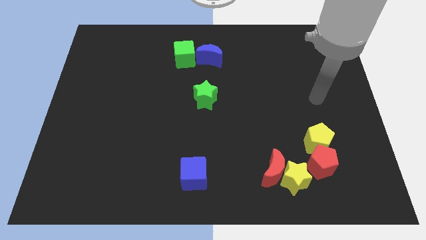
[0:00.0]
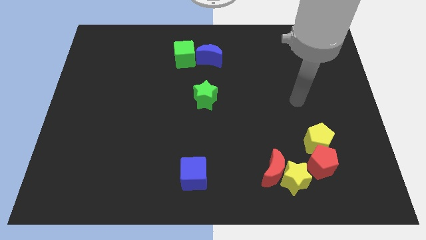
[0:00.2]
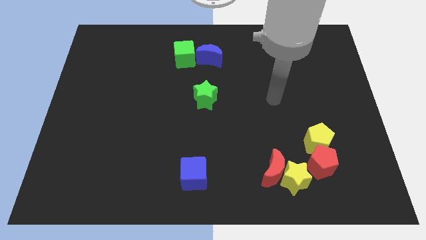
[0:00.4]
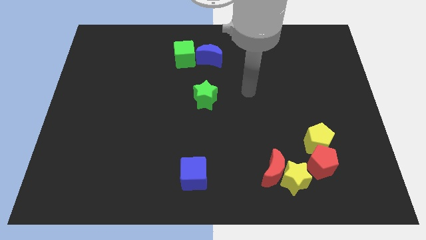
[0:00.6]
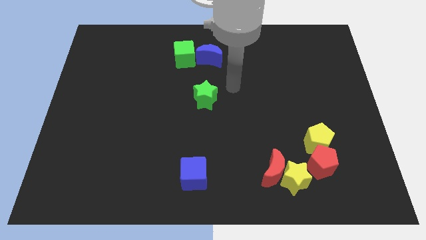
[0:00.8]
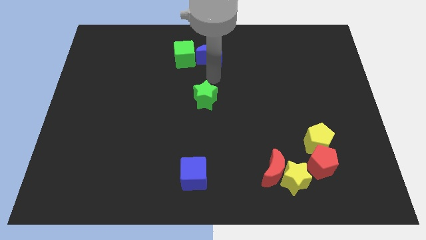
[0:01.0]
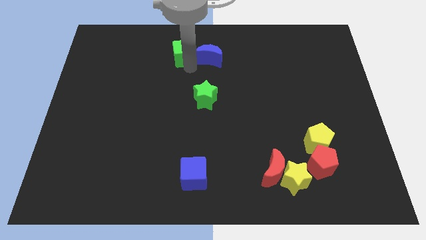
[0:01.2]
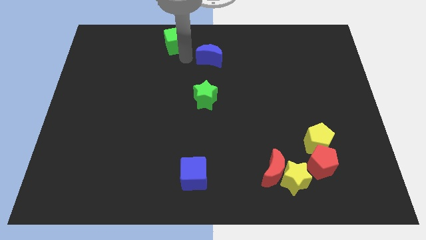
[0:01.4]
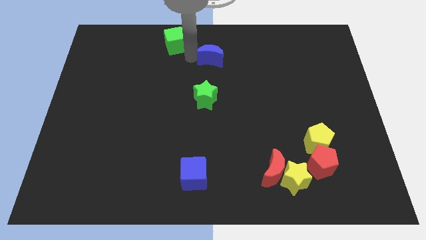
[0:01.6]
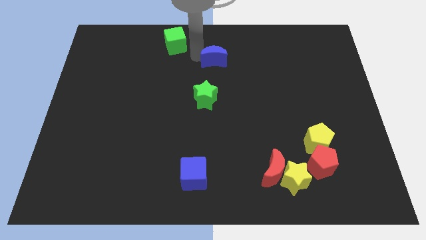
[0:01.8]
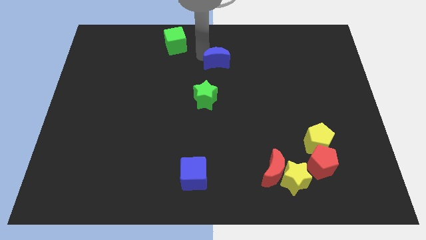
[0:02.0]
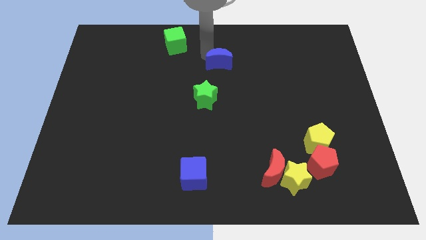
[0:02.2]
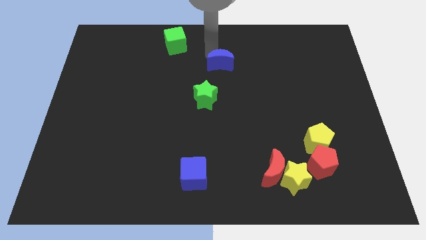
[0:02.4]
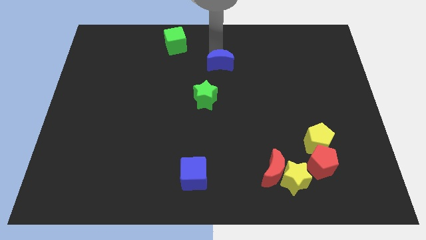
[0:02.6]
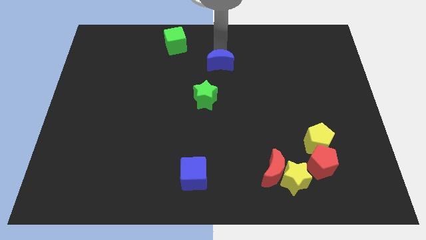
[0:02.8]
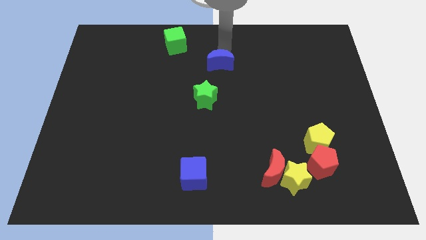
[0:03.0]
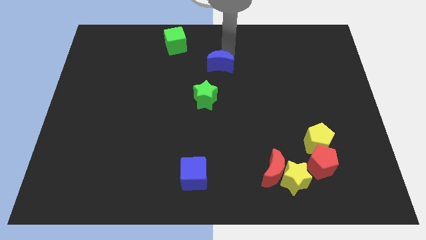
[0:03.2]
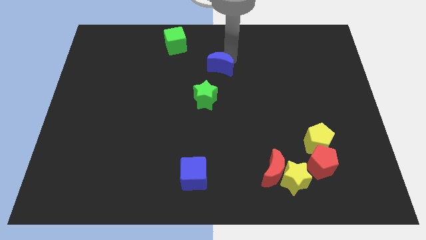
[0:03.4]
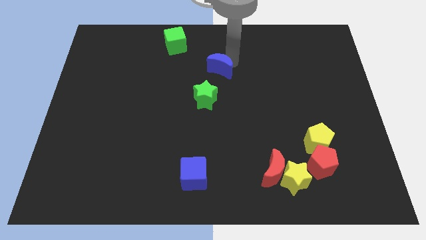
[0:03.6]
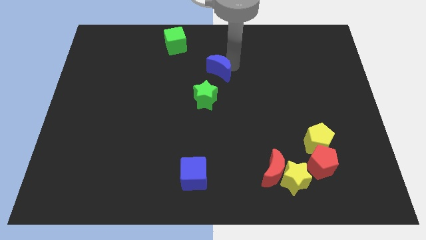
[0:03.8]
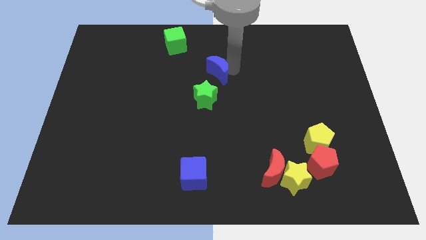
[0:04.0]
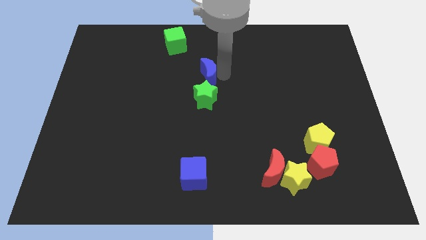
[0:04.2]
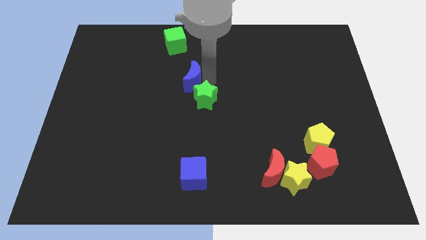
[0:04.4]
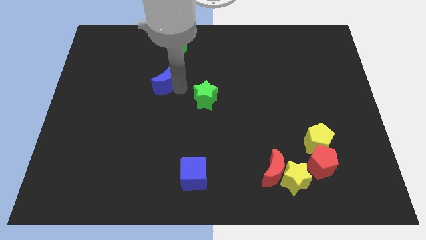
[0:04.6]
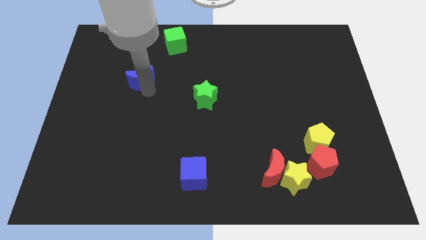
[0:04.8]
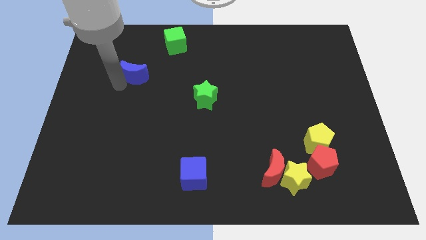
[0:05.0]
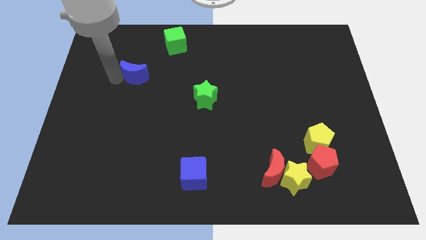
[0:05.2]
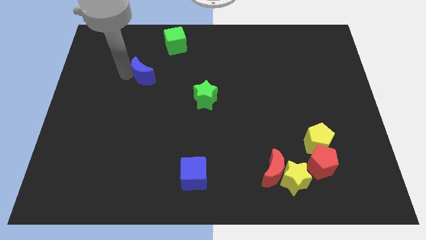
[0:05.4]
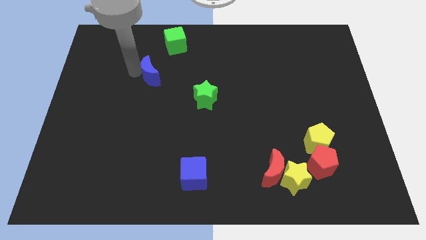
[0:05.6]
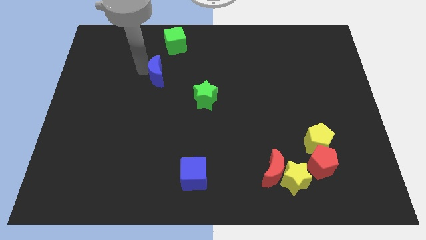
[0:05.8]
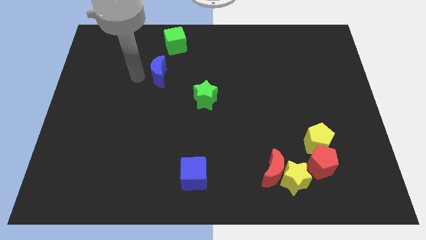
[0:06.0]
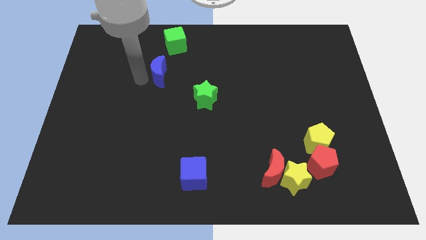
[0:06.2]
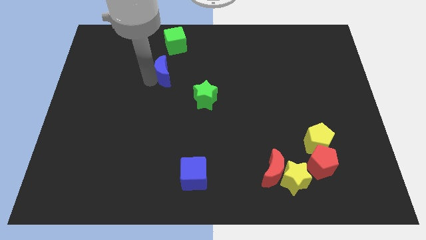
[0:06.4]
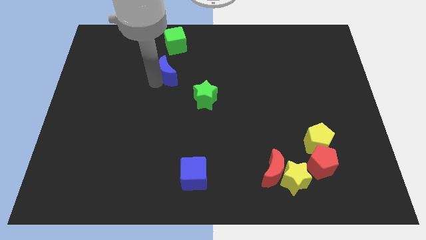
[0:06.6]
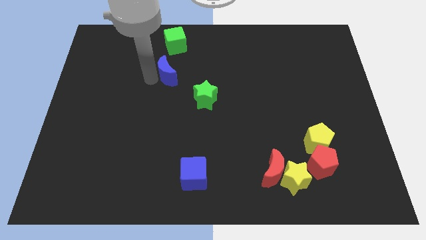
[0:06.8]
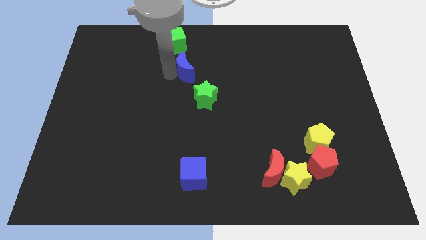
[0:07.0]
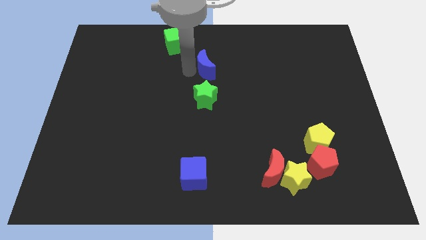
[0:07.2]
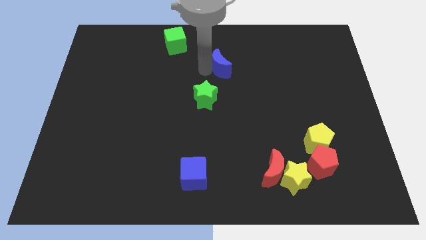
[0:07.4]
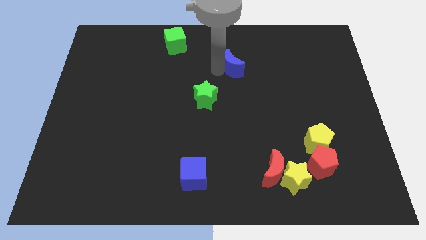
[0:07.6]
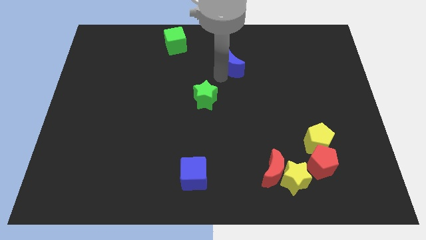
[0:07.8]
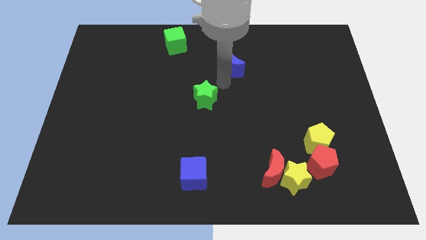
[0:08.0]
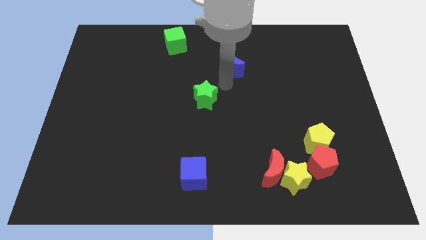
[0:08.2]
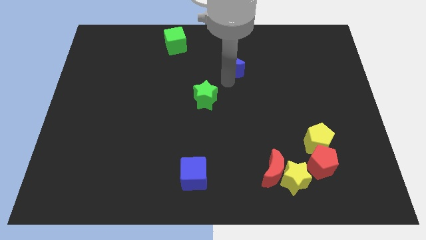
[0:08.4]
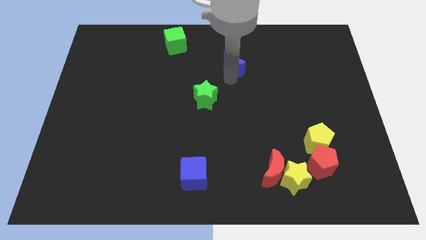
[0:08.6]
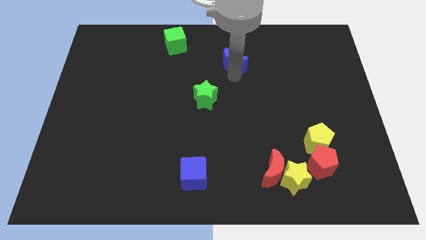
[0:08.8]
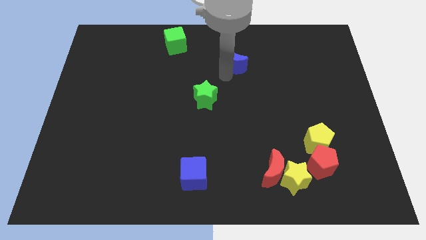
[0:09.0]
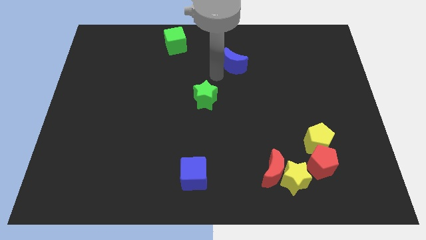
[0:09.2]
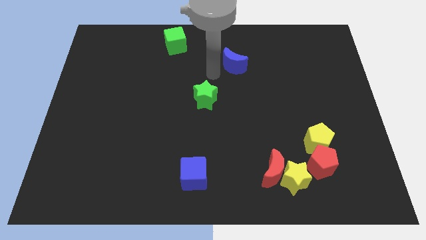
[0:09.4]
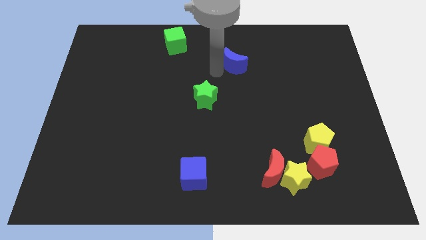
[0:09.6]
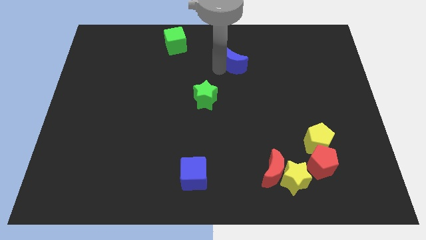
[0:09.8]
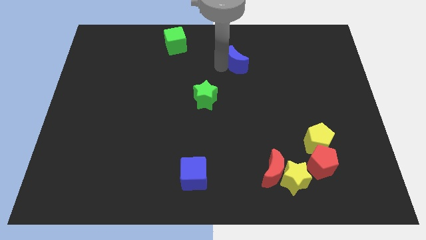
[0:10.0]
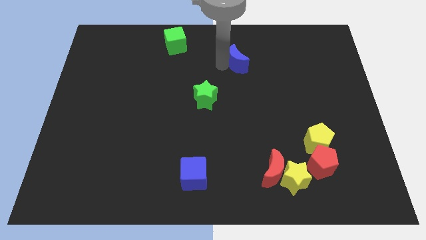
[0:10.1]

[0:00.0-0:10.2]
slightly move the blue moon to the right

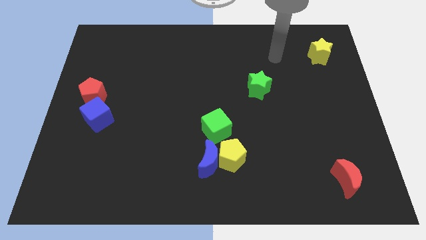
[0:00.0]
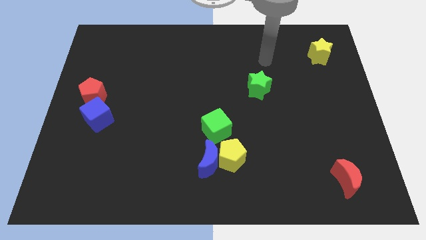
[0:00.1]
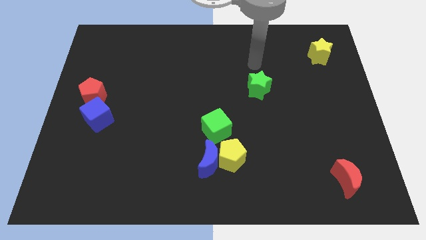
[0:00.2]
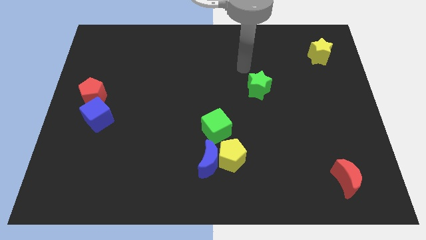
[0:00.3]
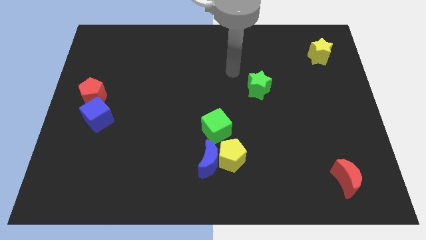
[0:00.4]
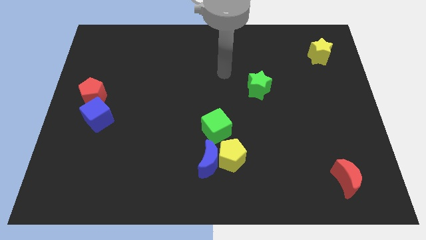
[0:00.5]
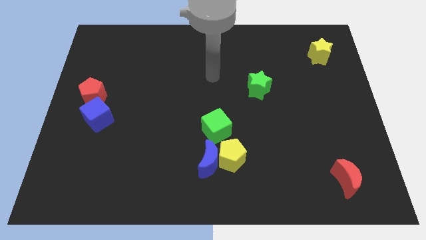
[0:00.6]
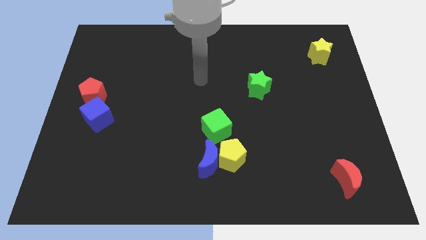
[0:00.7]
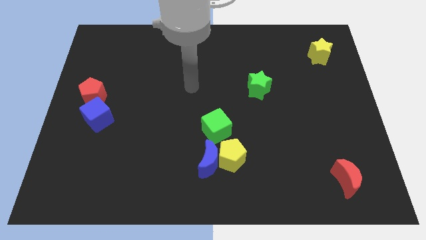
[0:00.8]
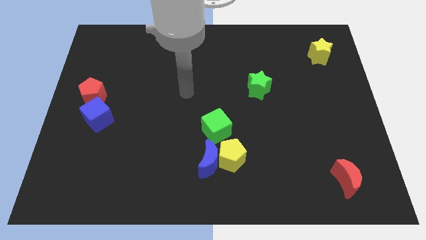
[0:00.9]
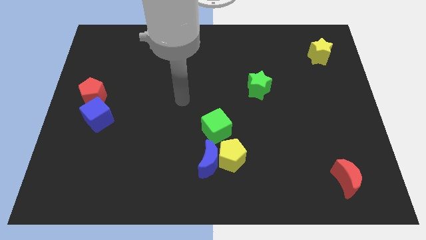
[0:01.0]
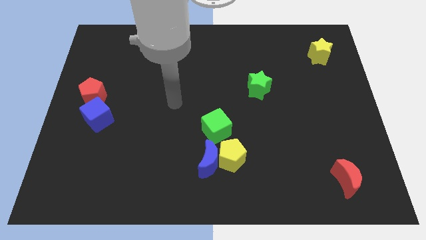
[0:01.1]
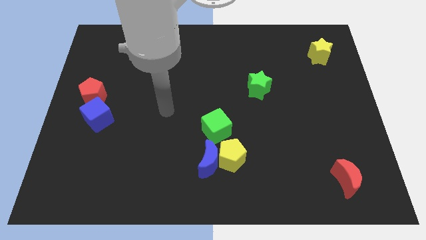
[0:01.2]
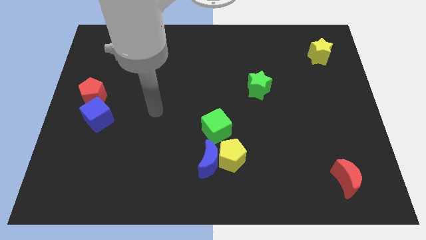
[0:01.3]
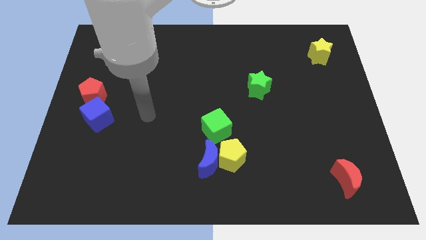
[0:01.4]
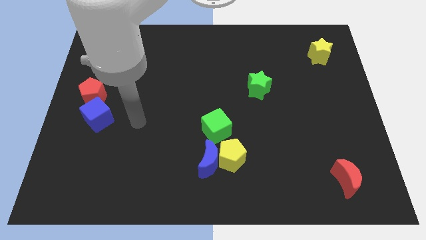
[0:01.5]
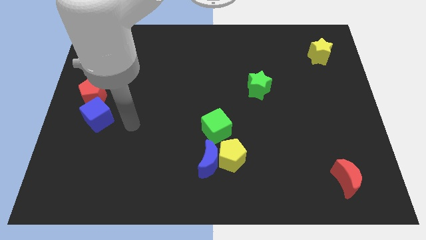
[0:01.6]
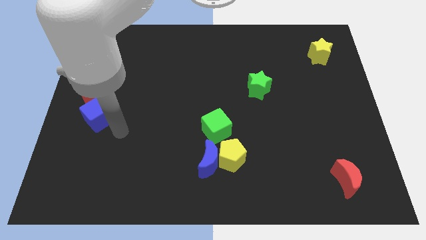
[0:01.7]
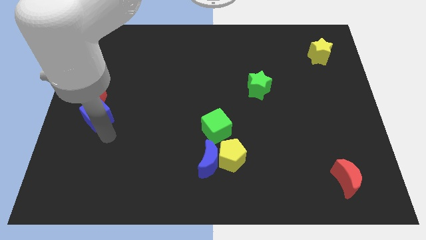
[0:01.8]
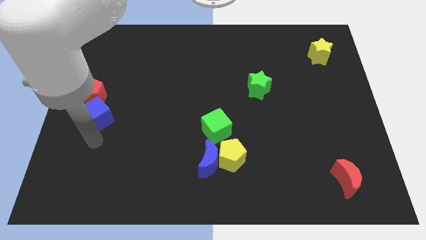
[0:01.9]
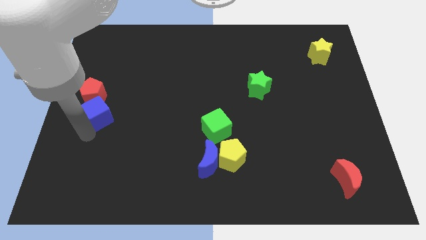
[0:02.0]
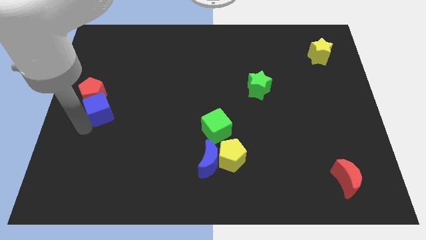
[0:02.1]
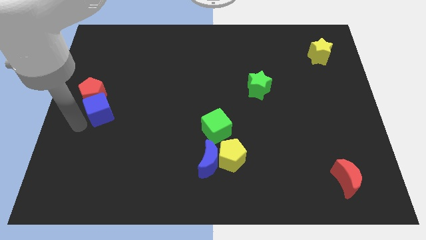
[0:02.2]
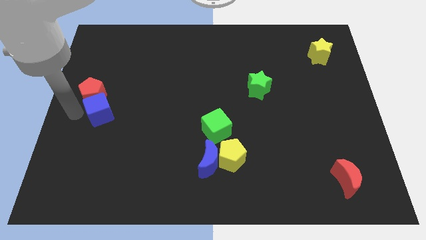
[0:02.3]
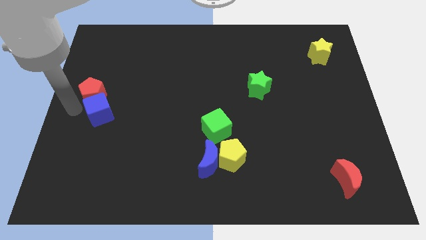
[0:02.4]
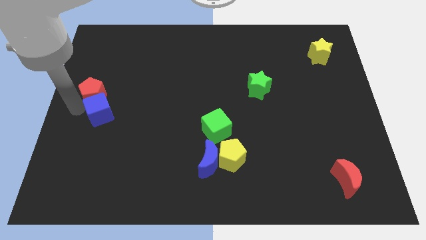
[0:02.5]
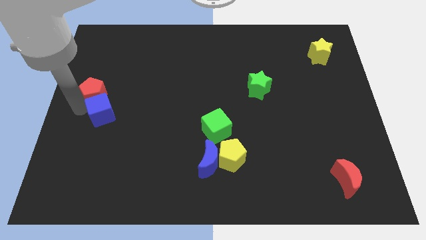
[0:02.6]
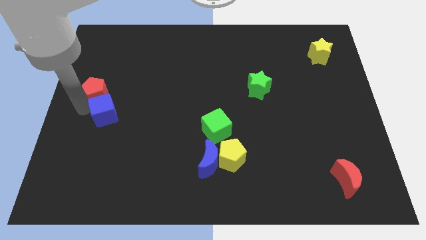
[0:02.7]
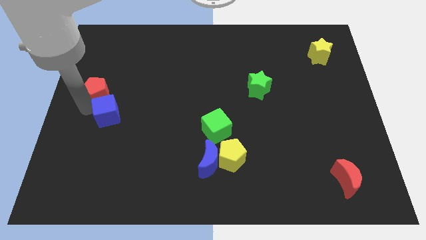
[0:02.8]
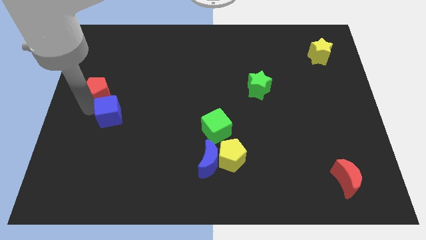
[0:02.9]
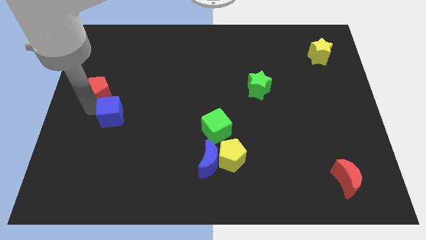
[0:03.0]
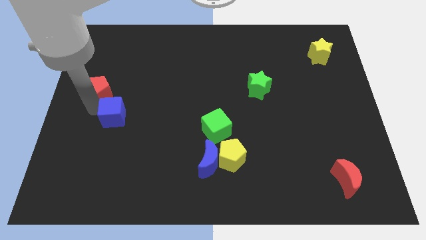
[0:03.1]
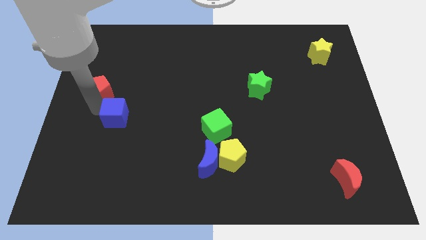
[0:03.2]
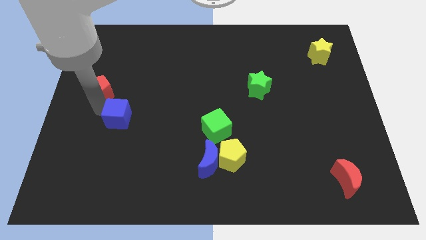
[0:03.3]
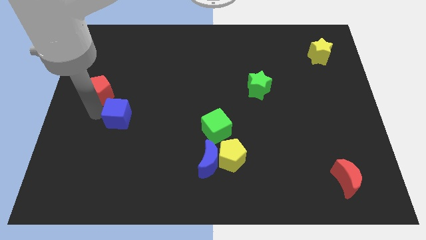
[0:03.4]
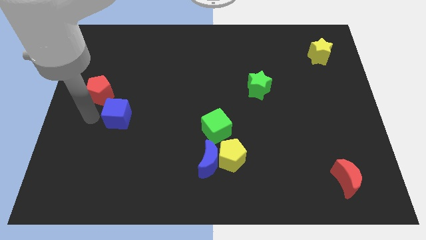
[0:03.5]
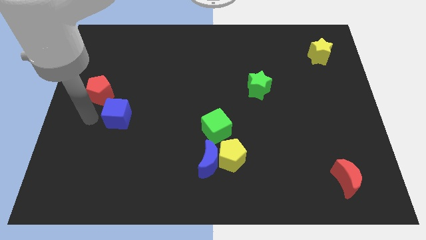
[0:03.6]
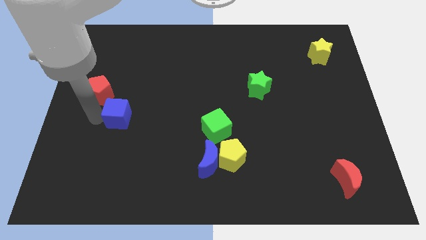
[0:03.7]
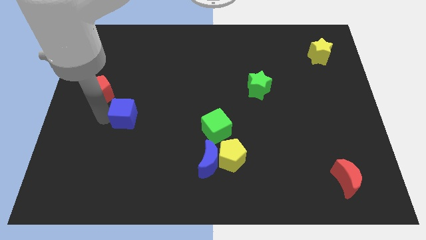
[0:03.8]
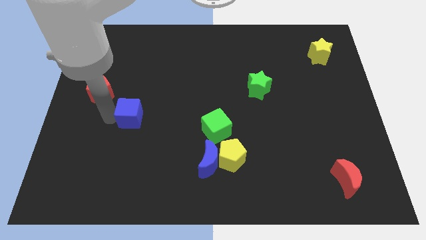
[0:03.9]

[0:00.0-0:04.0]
slightly move the blue cube right
